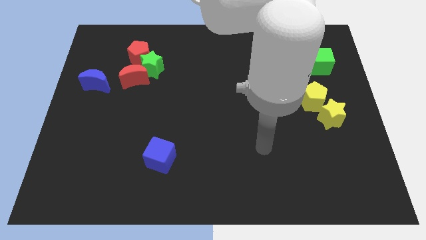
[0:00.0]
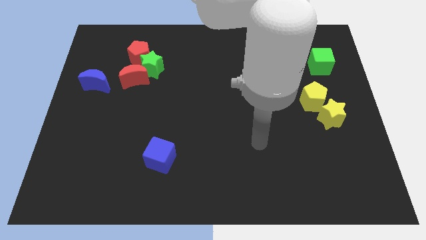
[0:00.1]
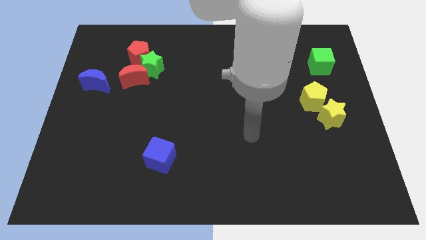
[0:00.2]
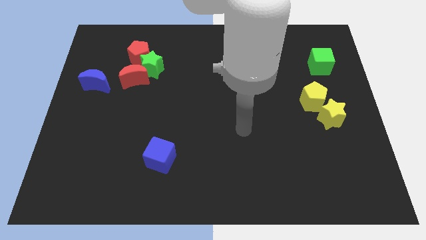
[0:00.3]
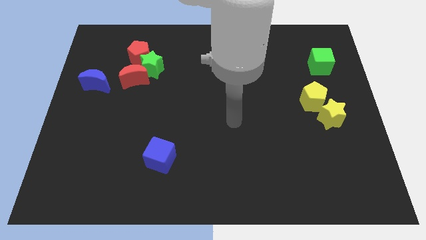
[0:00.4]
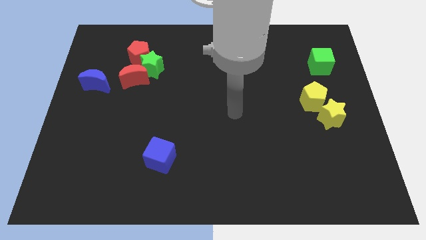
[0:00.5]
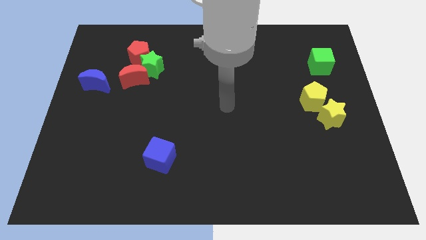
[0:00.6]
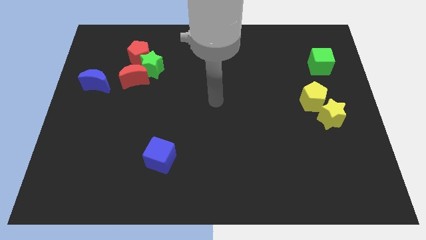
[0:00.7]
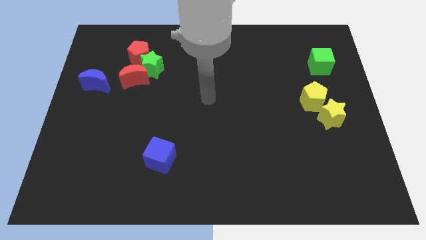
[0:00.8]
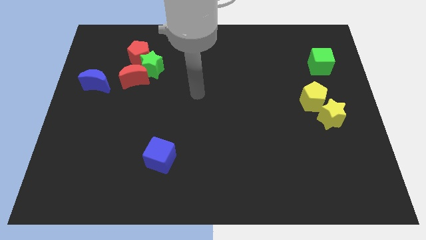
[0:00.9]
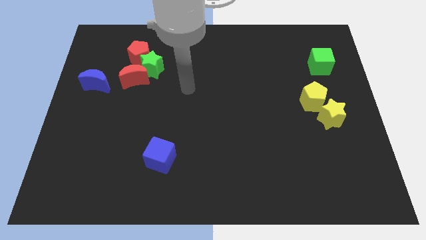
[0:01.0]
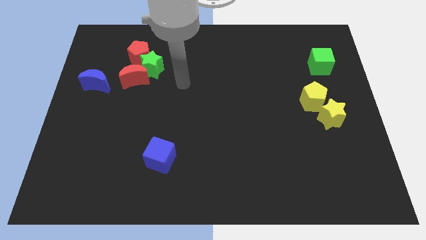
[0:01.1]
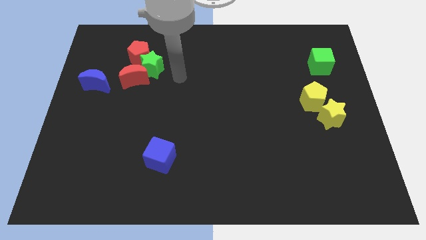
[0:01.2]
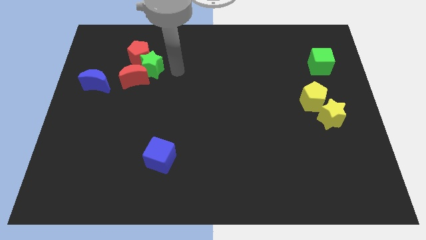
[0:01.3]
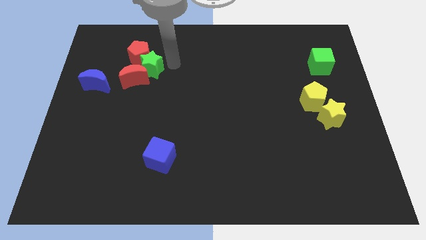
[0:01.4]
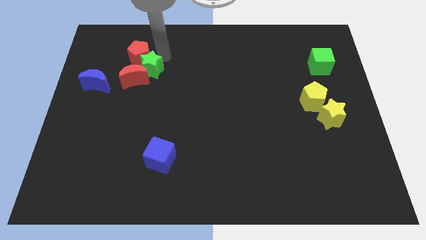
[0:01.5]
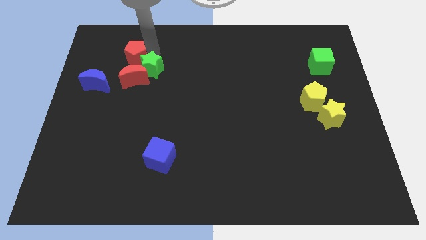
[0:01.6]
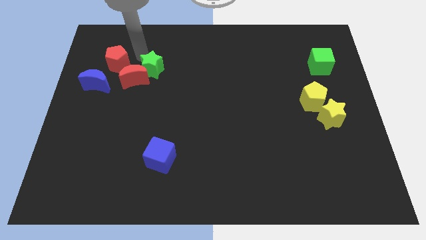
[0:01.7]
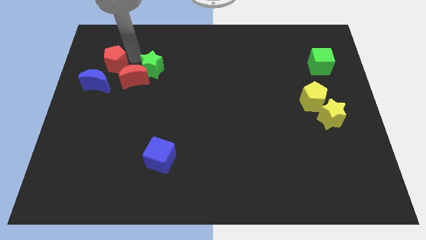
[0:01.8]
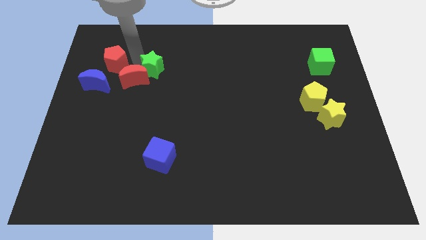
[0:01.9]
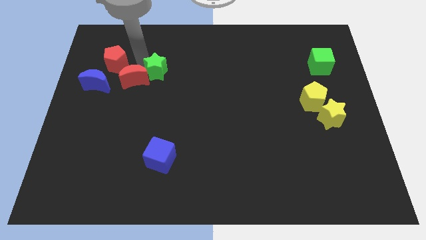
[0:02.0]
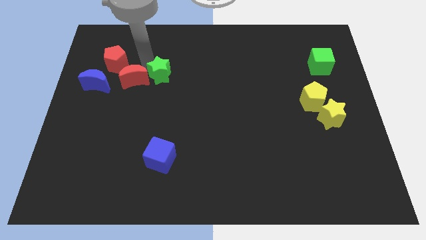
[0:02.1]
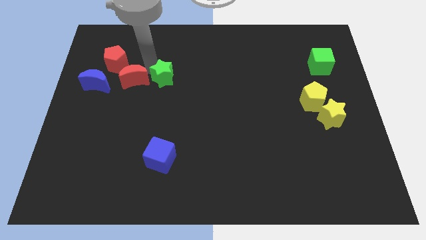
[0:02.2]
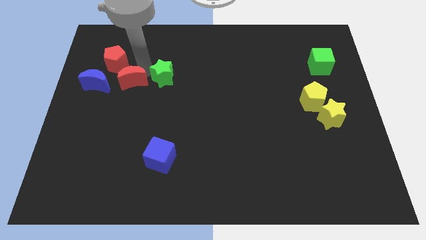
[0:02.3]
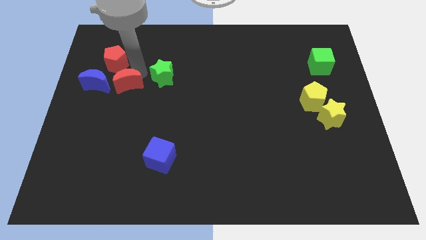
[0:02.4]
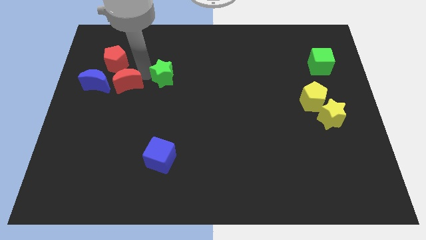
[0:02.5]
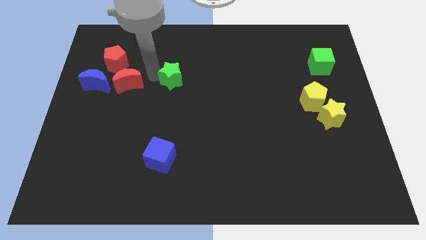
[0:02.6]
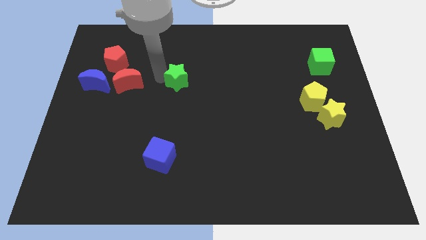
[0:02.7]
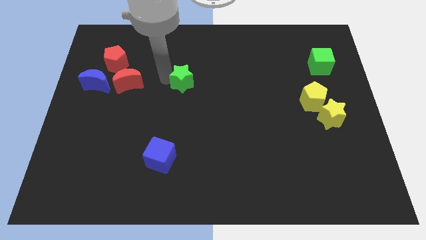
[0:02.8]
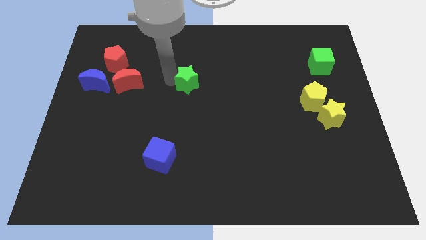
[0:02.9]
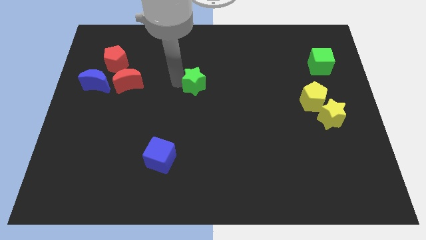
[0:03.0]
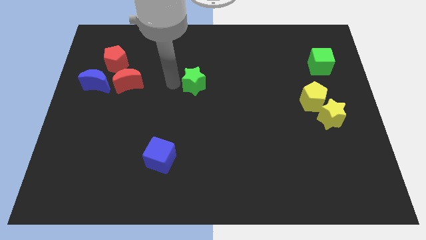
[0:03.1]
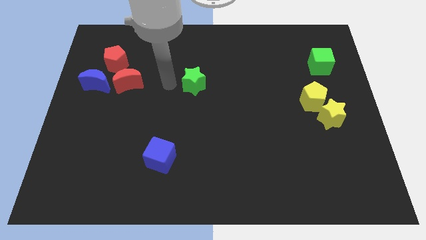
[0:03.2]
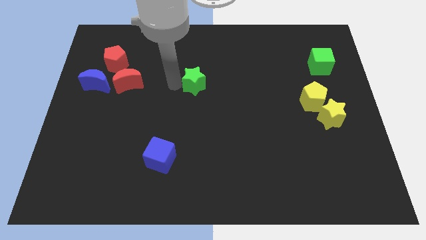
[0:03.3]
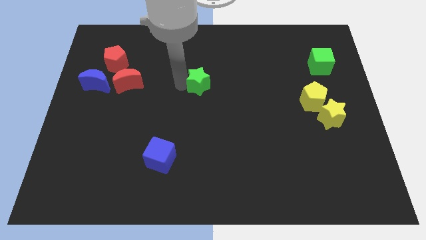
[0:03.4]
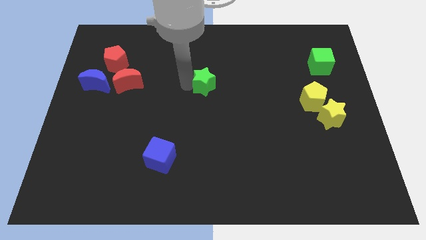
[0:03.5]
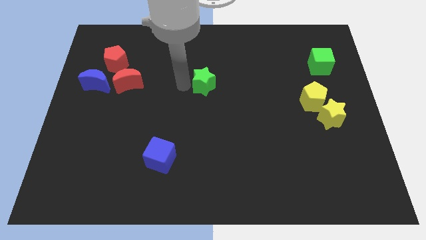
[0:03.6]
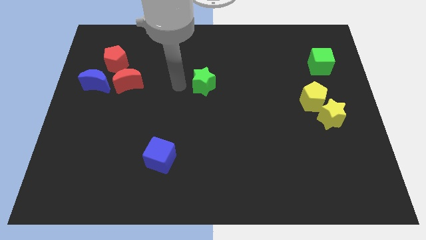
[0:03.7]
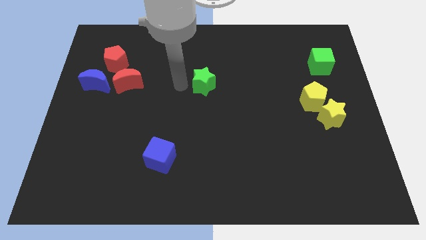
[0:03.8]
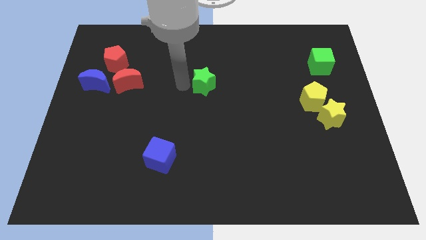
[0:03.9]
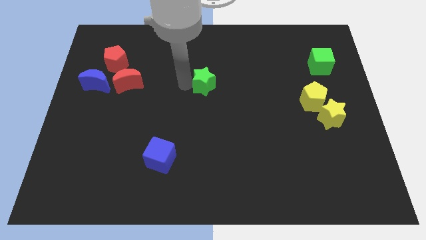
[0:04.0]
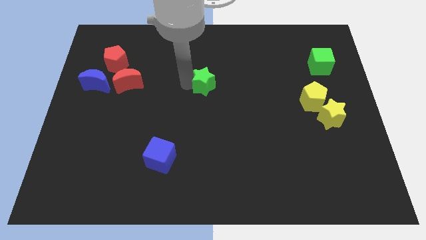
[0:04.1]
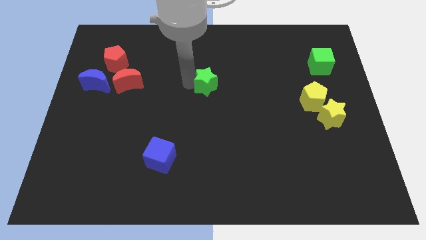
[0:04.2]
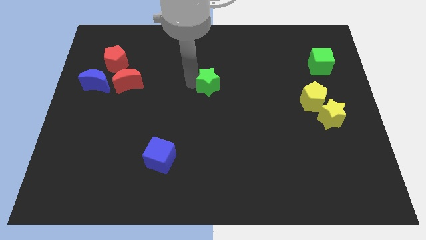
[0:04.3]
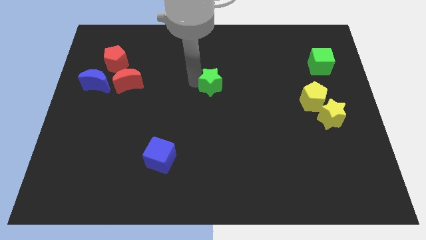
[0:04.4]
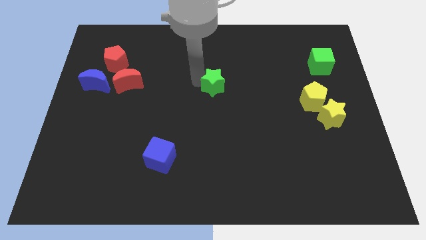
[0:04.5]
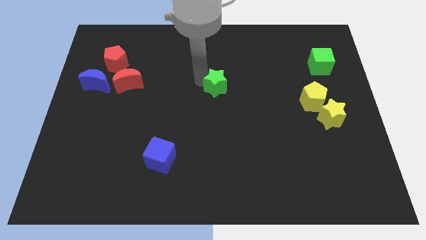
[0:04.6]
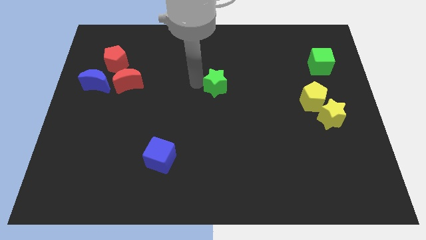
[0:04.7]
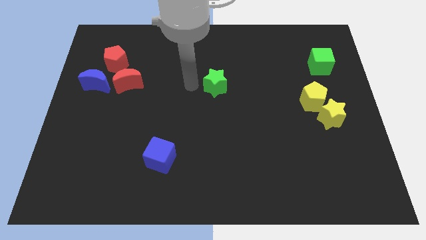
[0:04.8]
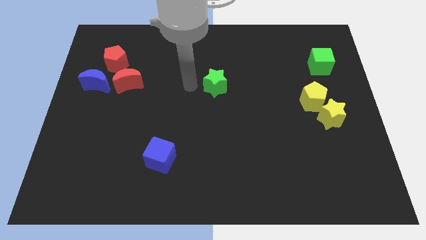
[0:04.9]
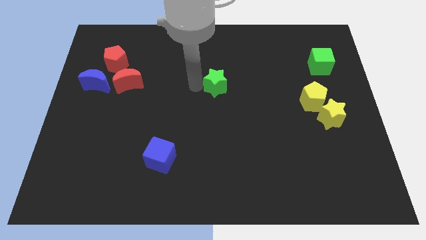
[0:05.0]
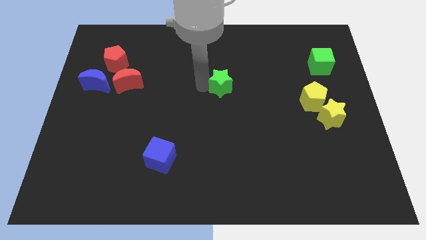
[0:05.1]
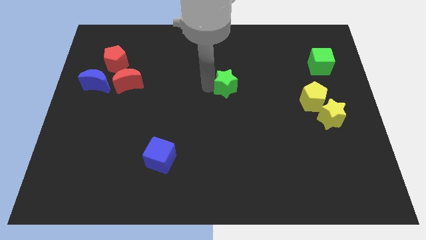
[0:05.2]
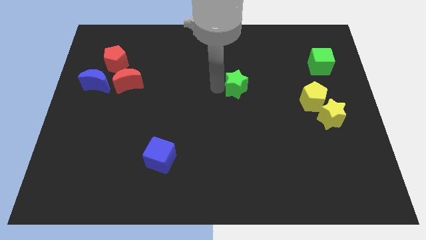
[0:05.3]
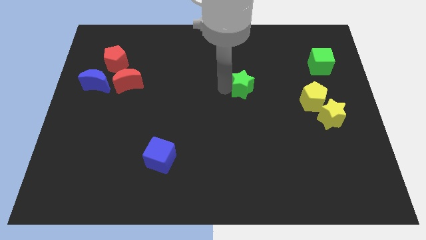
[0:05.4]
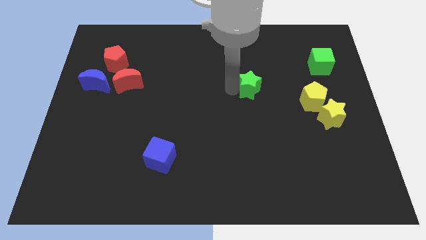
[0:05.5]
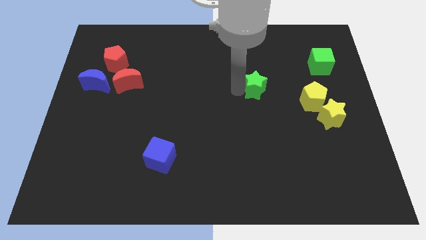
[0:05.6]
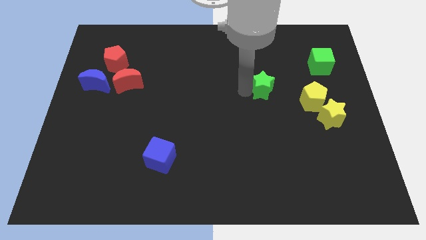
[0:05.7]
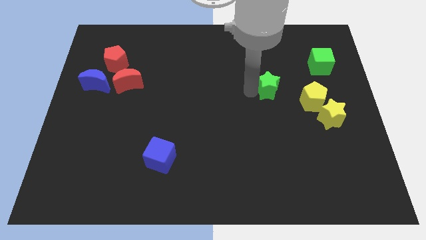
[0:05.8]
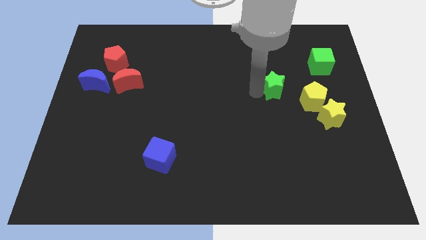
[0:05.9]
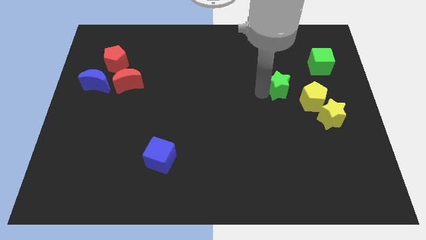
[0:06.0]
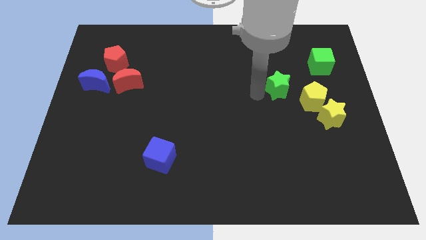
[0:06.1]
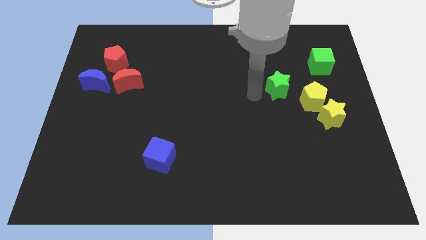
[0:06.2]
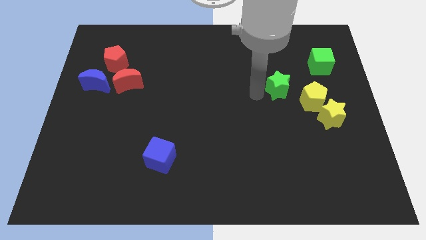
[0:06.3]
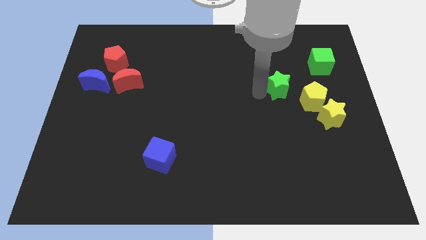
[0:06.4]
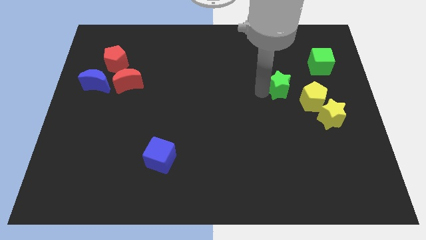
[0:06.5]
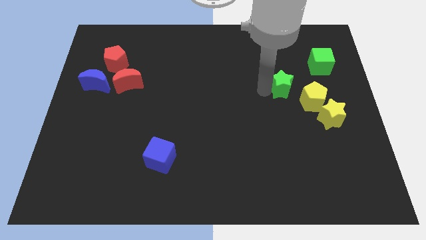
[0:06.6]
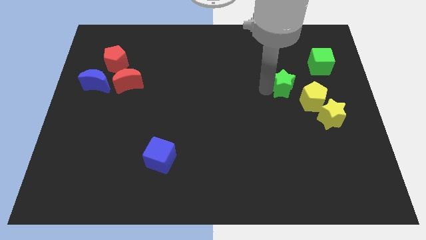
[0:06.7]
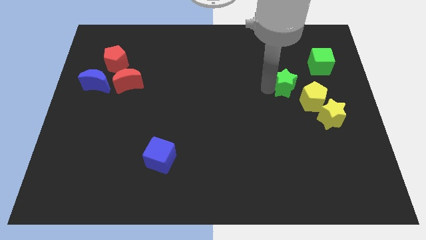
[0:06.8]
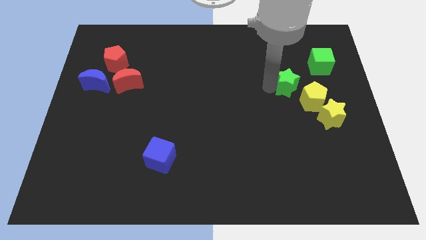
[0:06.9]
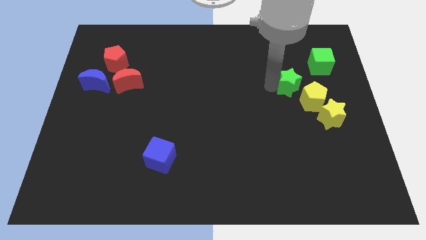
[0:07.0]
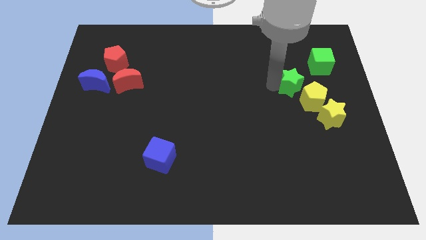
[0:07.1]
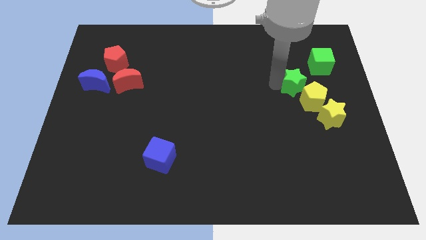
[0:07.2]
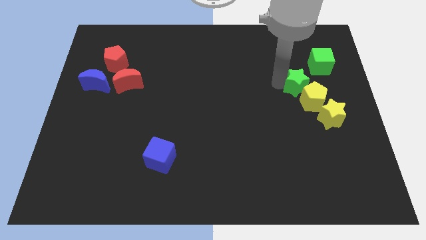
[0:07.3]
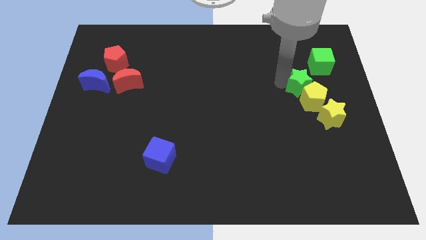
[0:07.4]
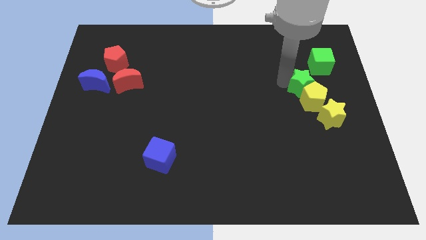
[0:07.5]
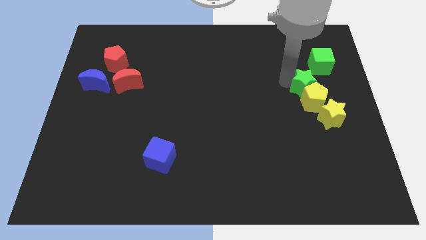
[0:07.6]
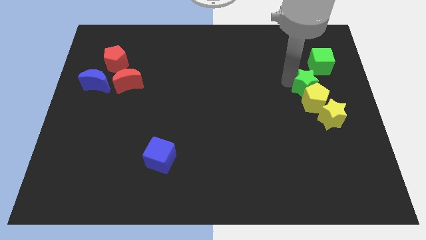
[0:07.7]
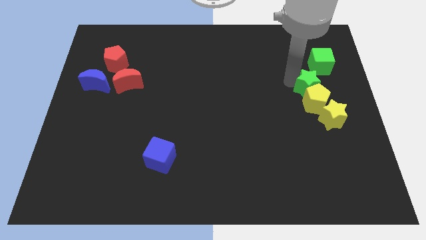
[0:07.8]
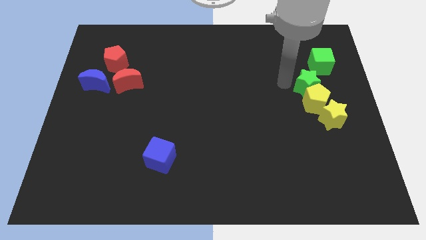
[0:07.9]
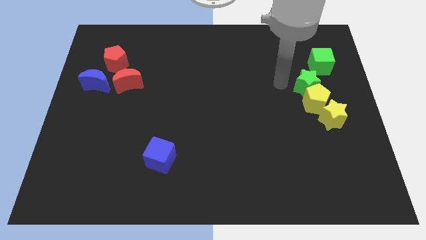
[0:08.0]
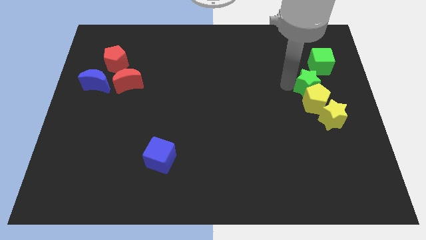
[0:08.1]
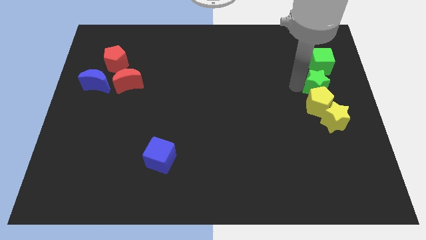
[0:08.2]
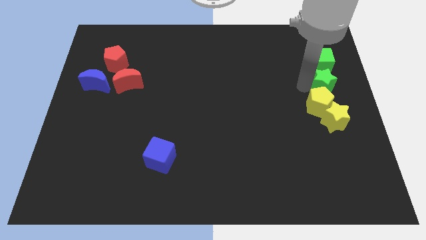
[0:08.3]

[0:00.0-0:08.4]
slide the green star to the right side of the board
